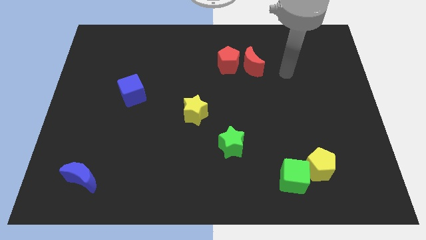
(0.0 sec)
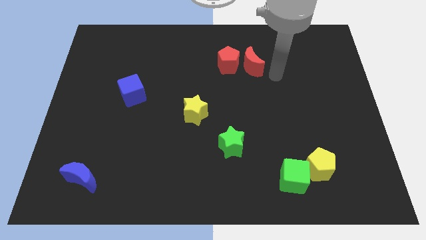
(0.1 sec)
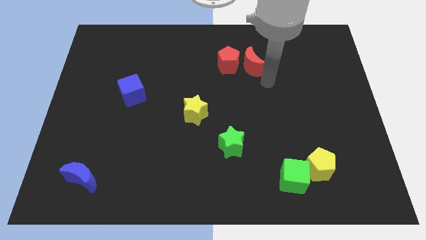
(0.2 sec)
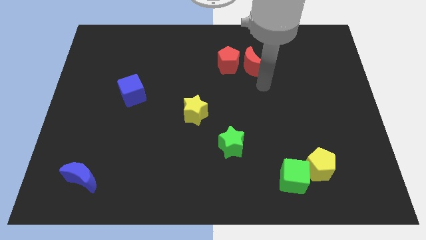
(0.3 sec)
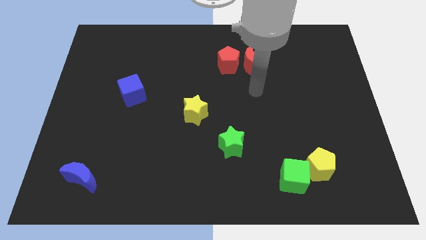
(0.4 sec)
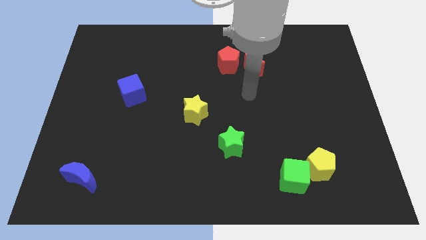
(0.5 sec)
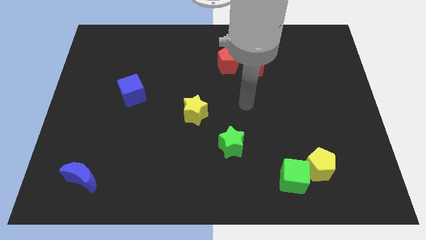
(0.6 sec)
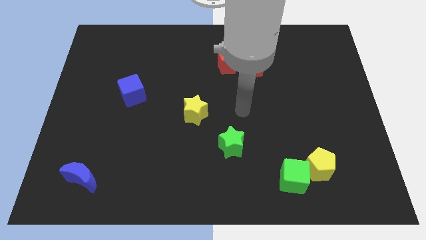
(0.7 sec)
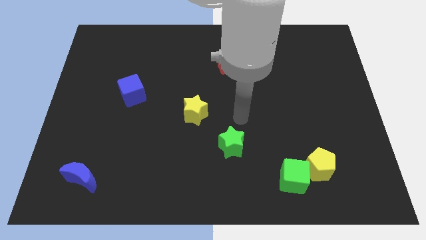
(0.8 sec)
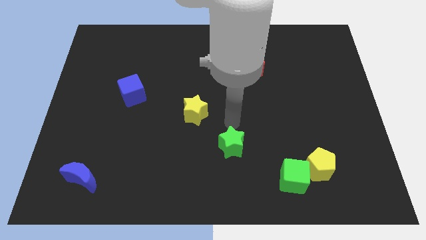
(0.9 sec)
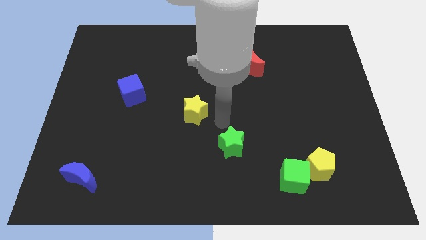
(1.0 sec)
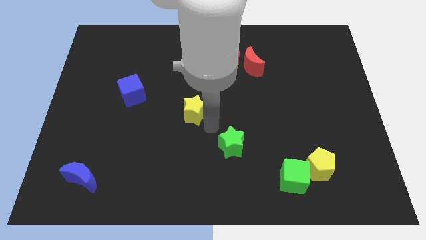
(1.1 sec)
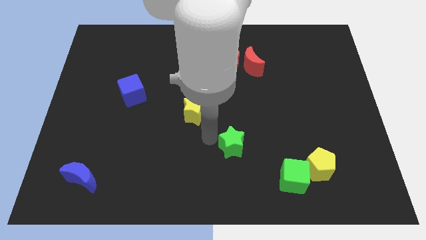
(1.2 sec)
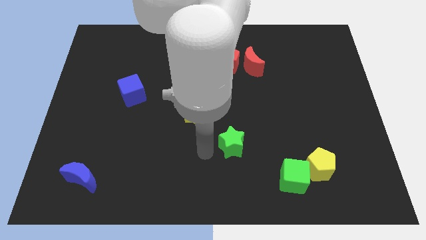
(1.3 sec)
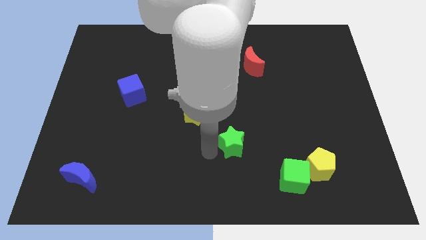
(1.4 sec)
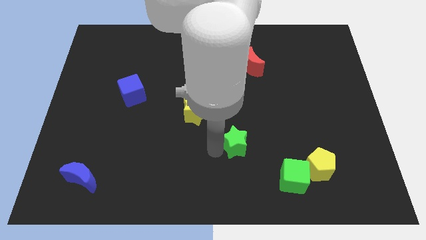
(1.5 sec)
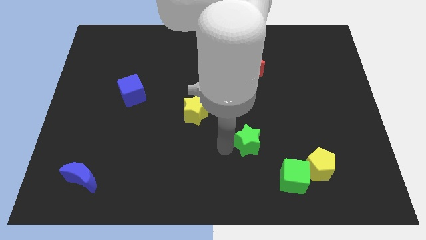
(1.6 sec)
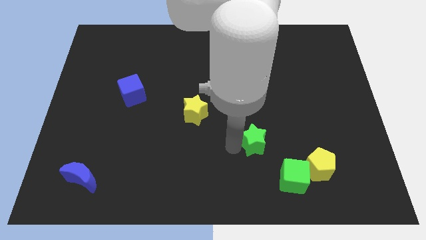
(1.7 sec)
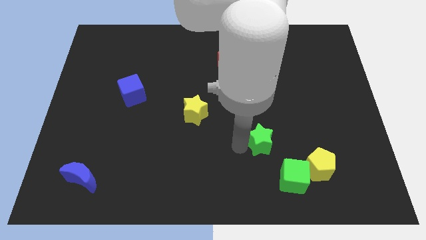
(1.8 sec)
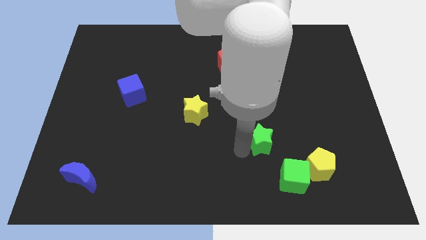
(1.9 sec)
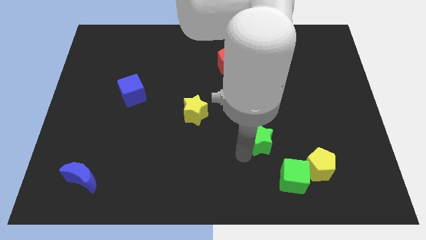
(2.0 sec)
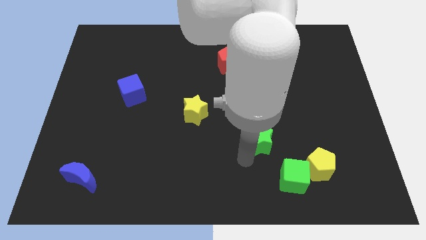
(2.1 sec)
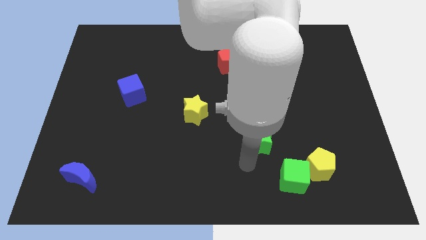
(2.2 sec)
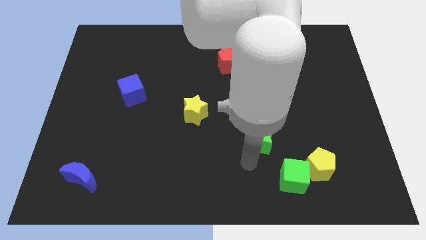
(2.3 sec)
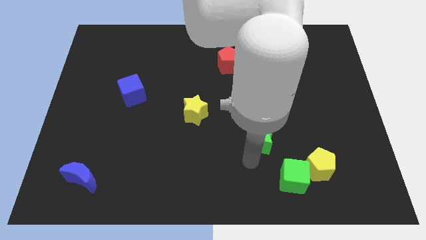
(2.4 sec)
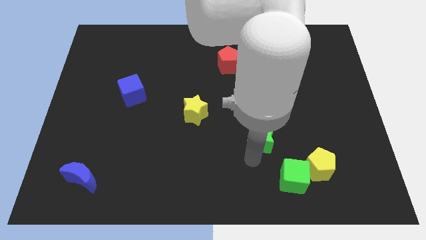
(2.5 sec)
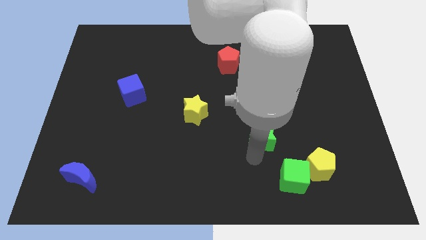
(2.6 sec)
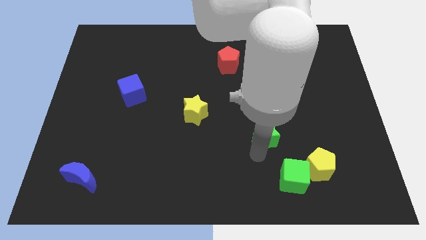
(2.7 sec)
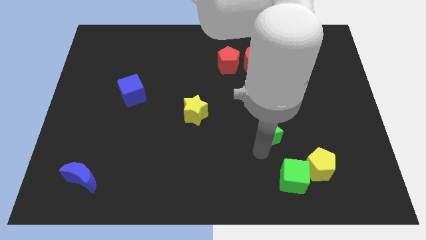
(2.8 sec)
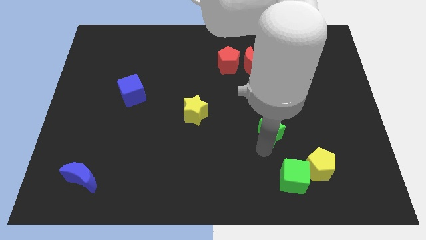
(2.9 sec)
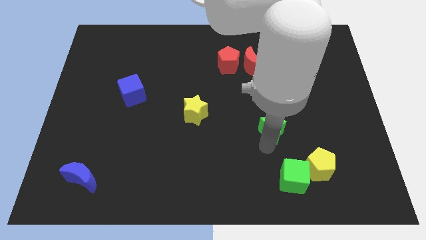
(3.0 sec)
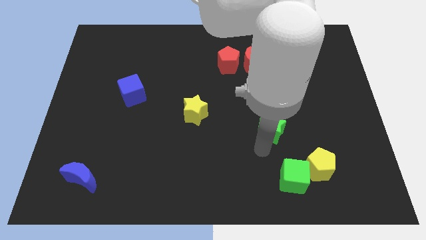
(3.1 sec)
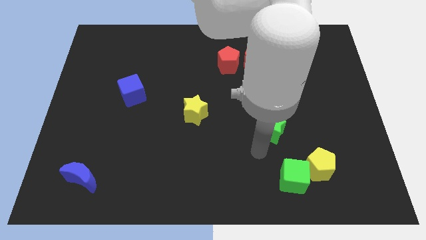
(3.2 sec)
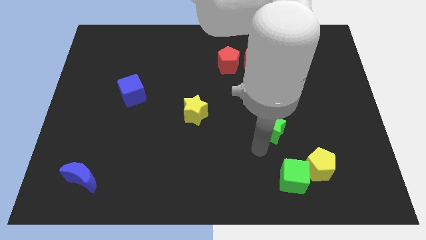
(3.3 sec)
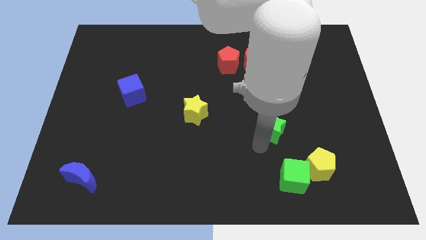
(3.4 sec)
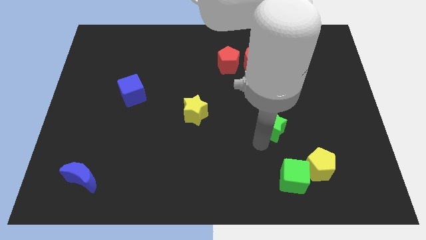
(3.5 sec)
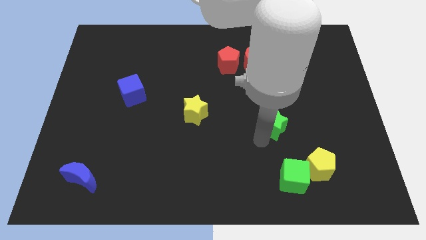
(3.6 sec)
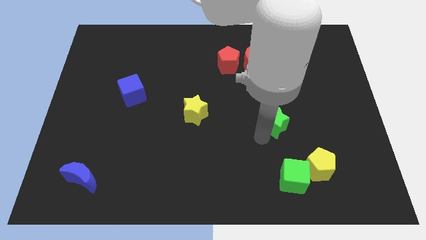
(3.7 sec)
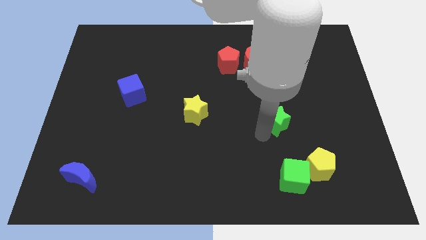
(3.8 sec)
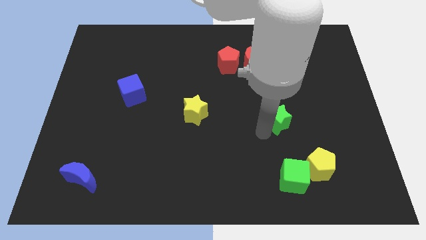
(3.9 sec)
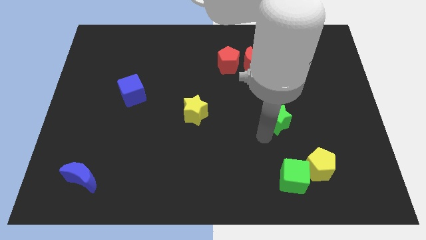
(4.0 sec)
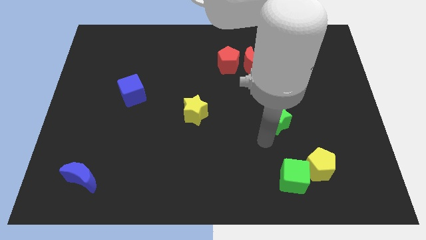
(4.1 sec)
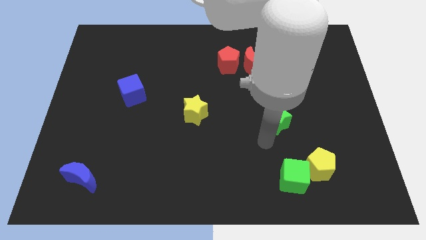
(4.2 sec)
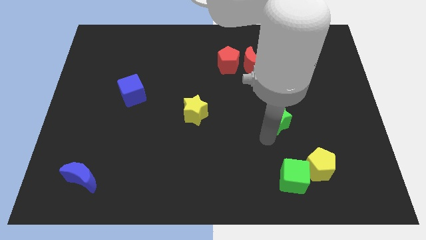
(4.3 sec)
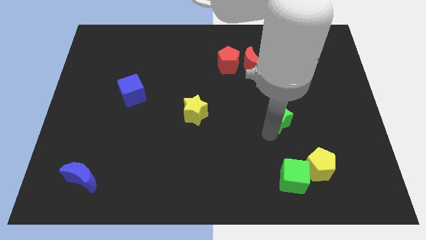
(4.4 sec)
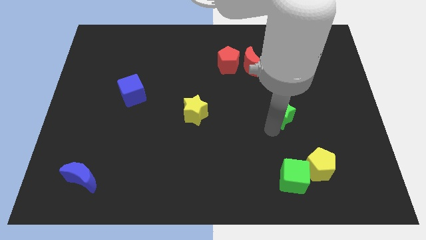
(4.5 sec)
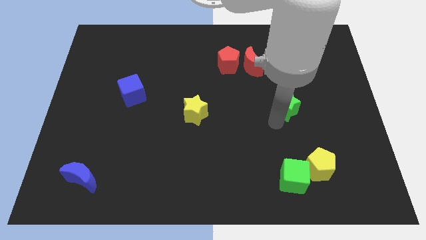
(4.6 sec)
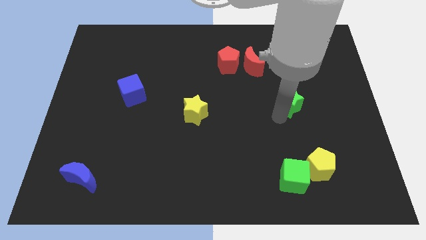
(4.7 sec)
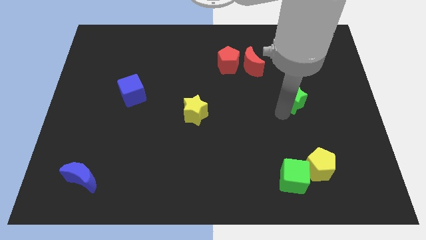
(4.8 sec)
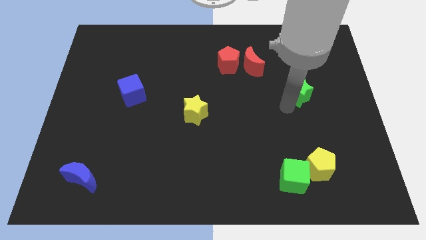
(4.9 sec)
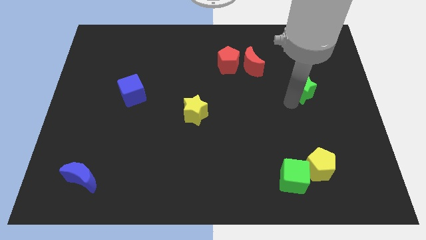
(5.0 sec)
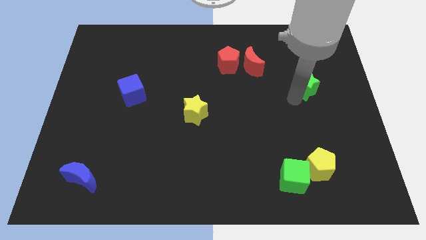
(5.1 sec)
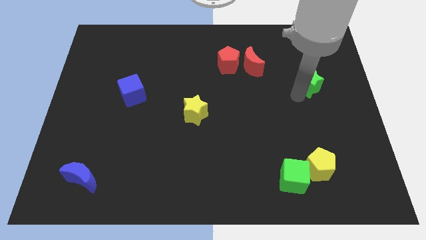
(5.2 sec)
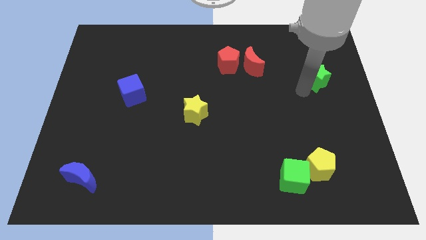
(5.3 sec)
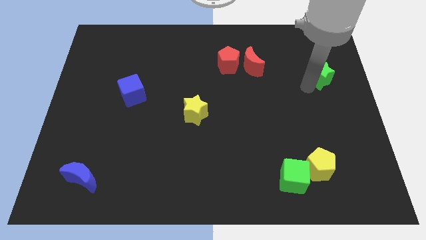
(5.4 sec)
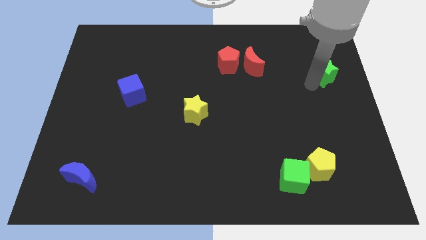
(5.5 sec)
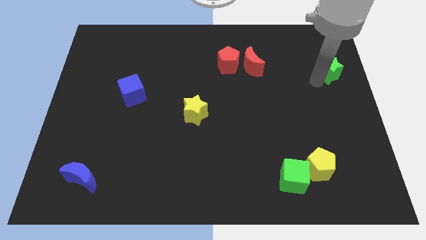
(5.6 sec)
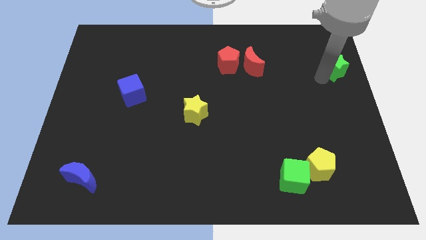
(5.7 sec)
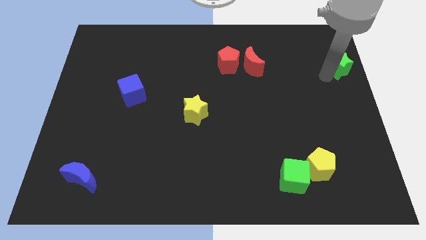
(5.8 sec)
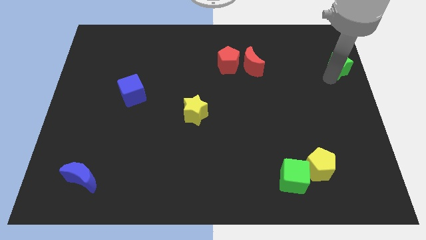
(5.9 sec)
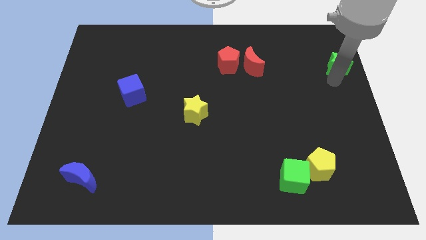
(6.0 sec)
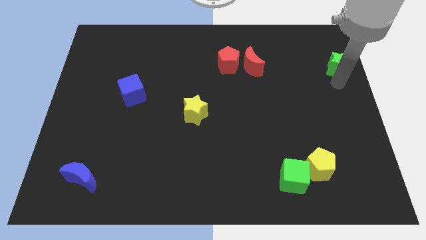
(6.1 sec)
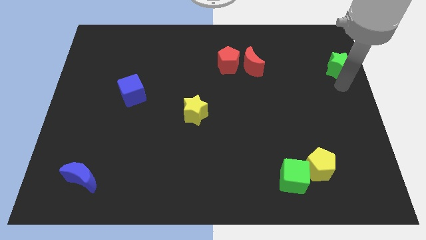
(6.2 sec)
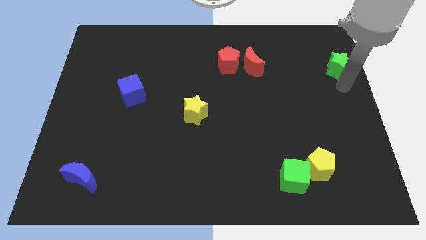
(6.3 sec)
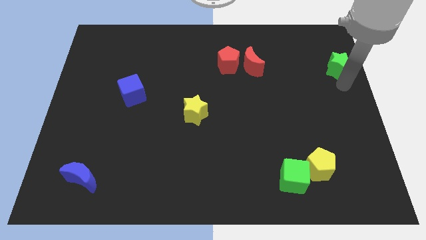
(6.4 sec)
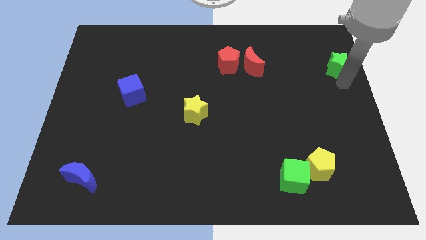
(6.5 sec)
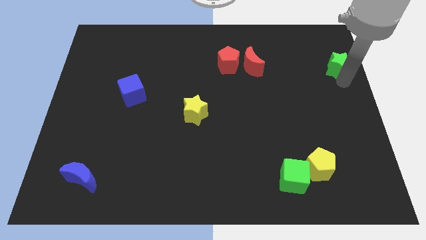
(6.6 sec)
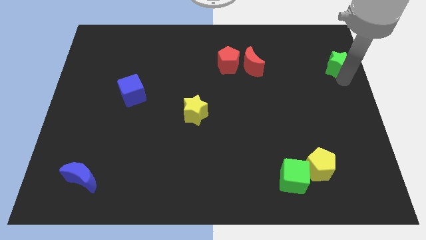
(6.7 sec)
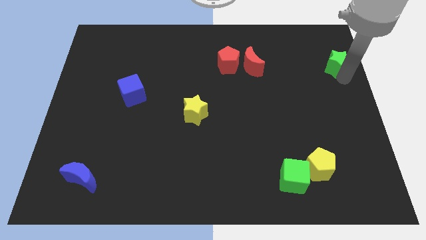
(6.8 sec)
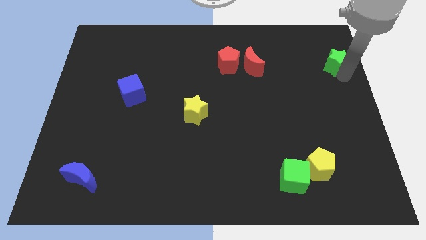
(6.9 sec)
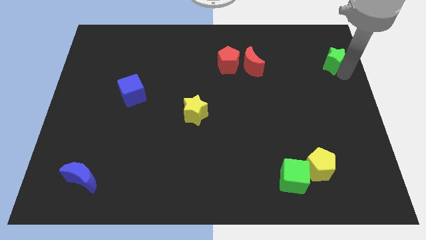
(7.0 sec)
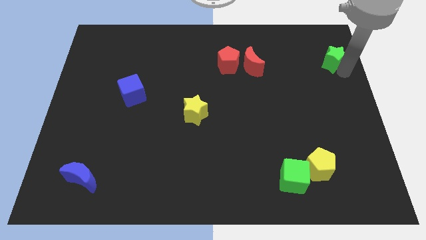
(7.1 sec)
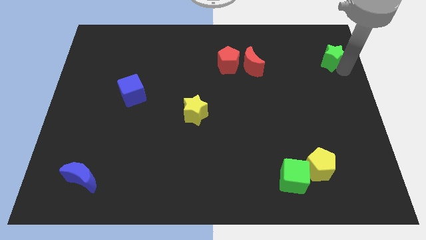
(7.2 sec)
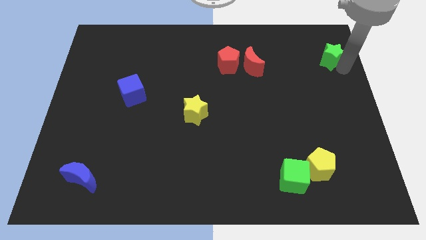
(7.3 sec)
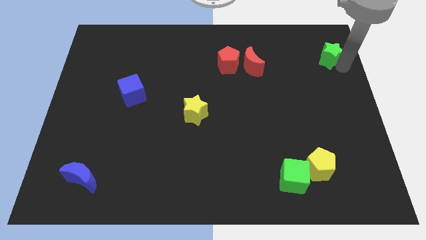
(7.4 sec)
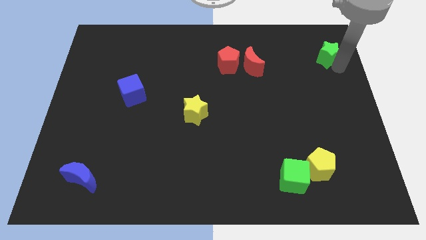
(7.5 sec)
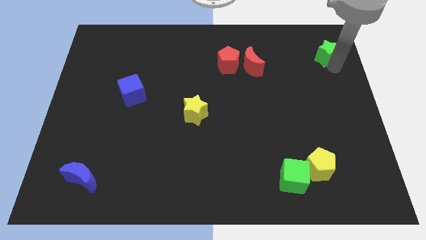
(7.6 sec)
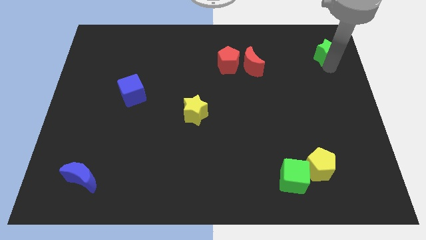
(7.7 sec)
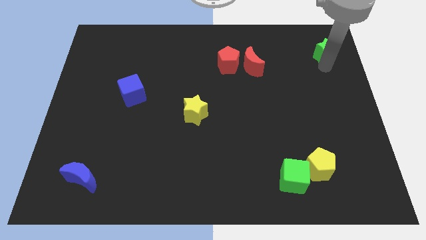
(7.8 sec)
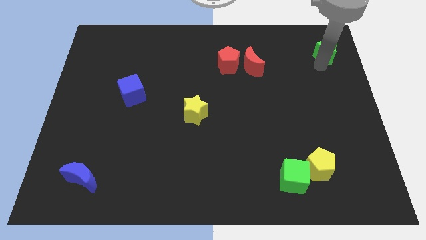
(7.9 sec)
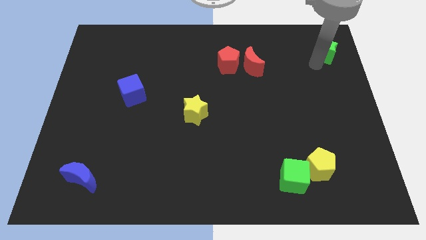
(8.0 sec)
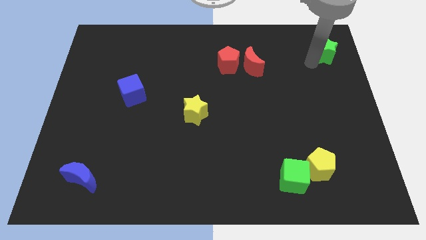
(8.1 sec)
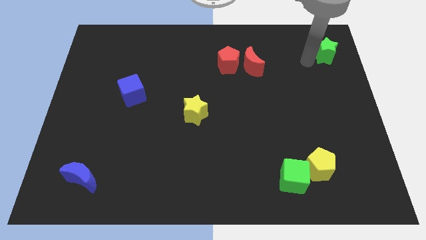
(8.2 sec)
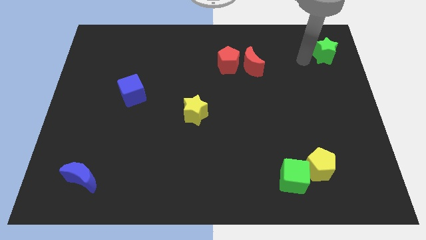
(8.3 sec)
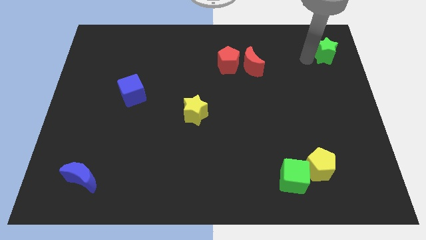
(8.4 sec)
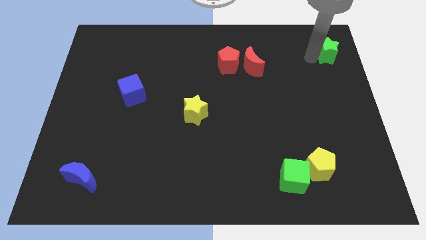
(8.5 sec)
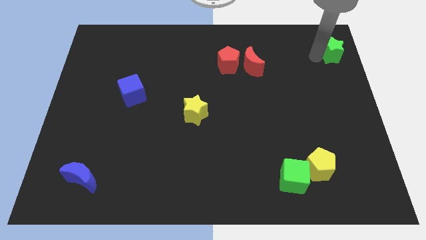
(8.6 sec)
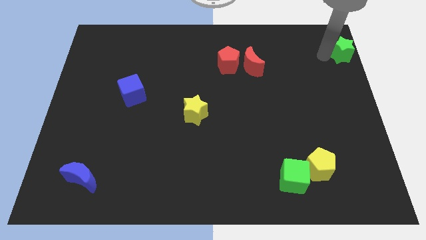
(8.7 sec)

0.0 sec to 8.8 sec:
push the green star to the top right of the board
